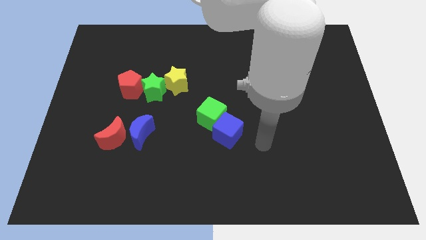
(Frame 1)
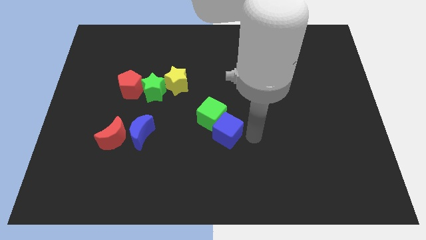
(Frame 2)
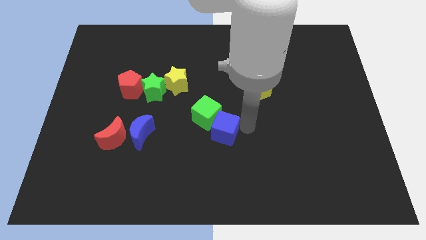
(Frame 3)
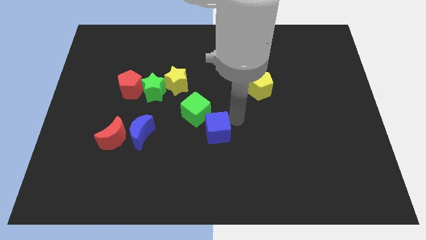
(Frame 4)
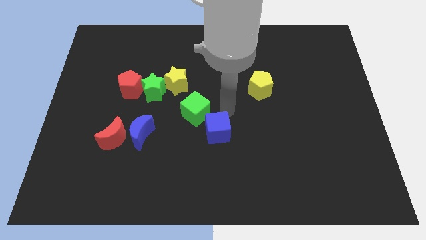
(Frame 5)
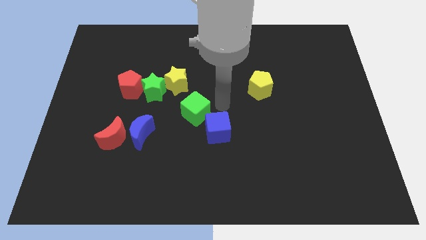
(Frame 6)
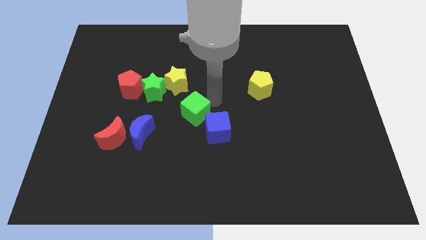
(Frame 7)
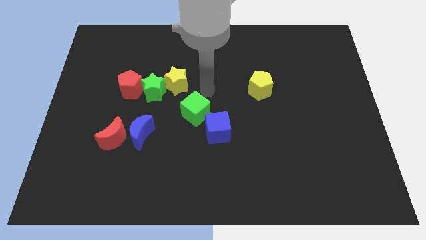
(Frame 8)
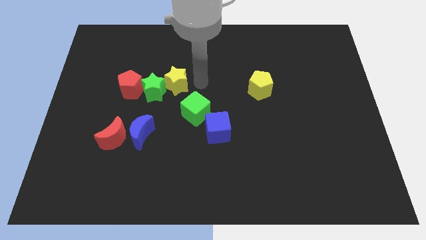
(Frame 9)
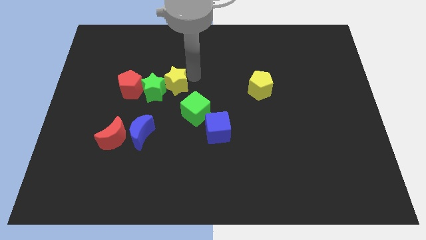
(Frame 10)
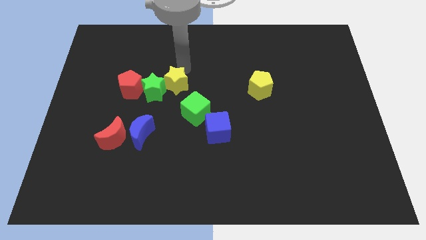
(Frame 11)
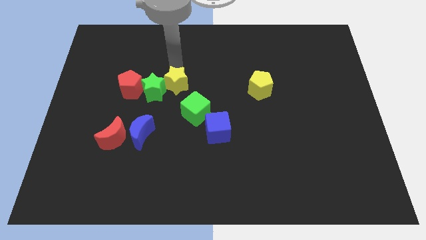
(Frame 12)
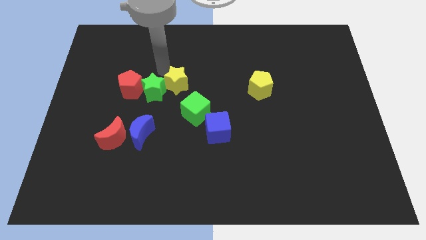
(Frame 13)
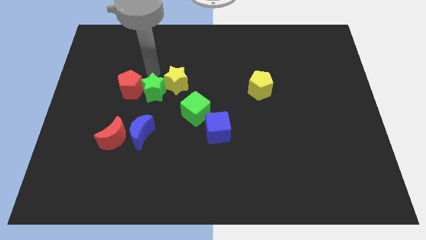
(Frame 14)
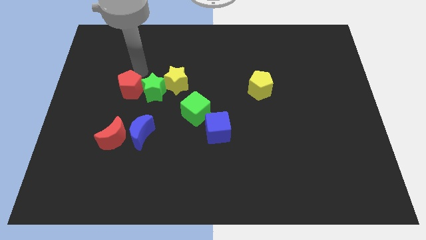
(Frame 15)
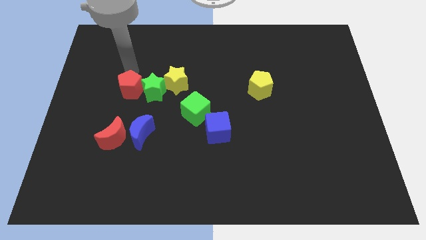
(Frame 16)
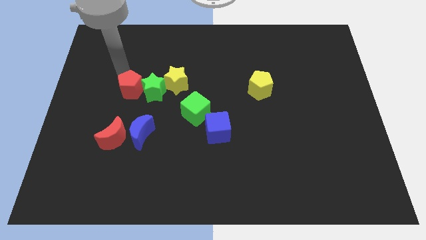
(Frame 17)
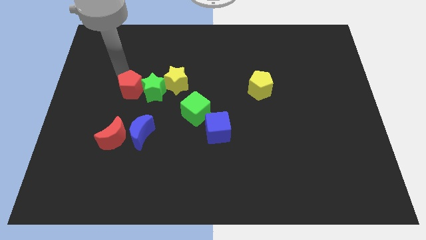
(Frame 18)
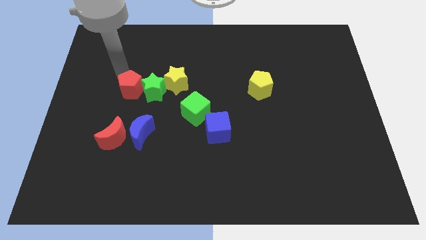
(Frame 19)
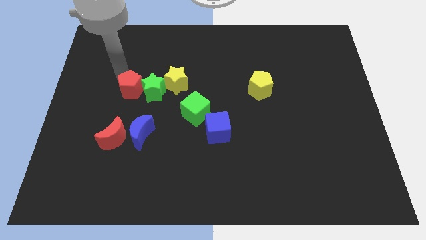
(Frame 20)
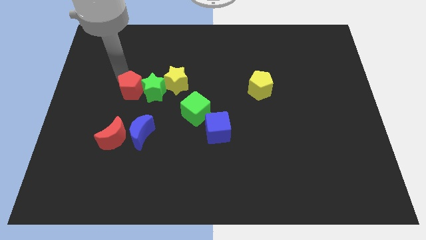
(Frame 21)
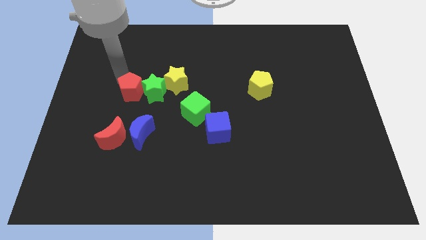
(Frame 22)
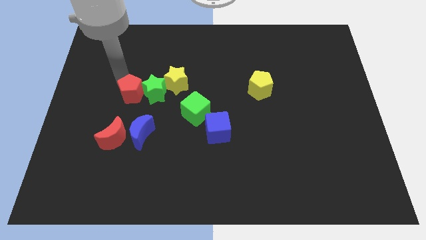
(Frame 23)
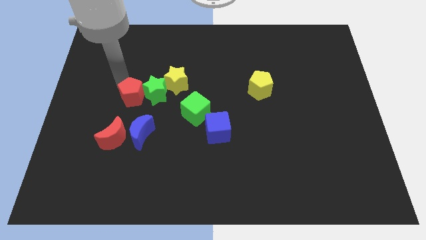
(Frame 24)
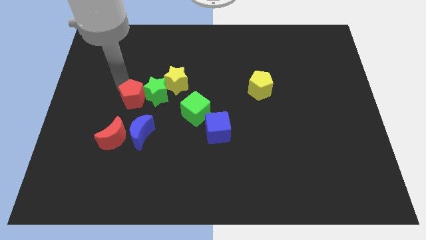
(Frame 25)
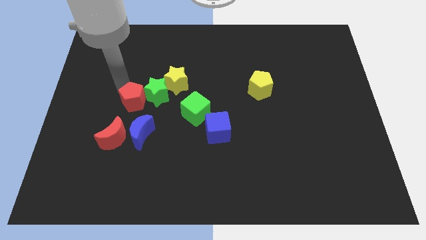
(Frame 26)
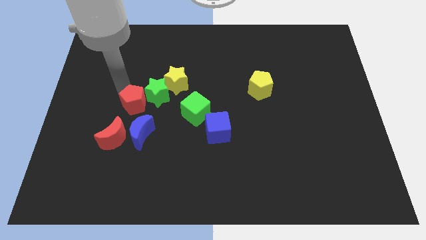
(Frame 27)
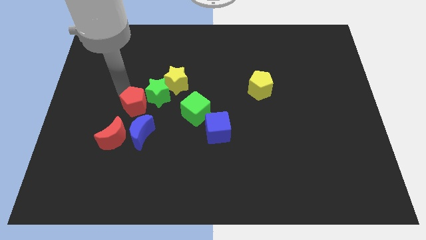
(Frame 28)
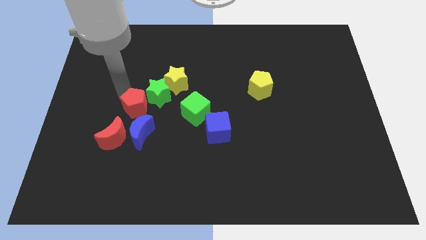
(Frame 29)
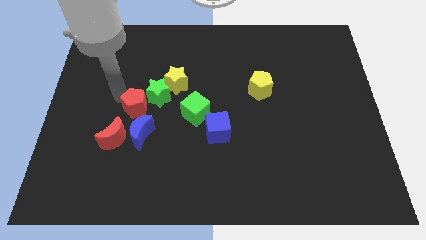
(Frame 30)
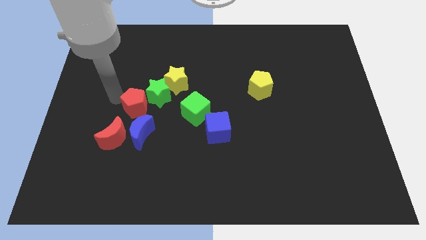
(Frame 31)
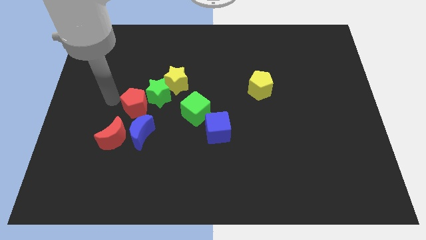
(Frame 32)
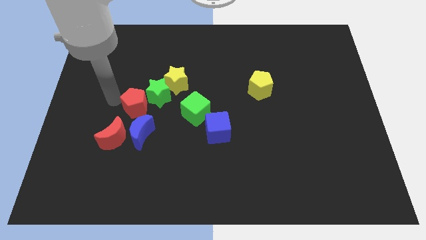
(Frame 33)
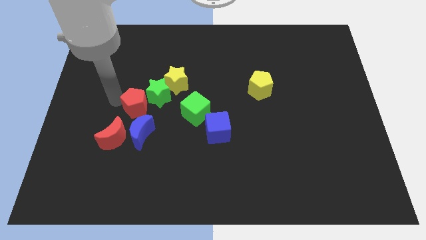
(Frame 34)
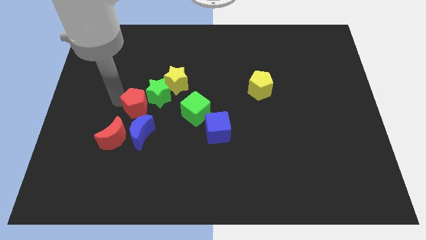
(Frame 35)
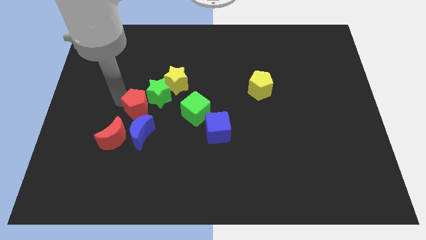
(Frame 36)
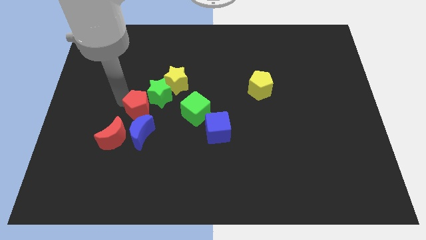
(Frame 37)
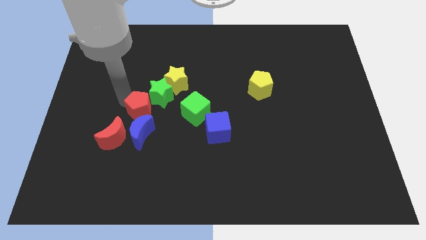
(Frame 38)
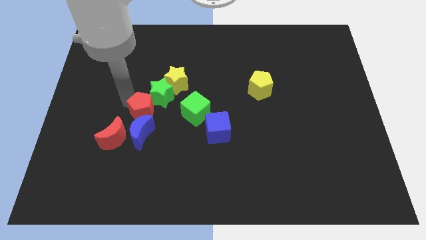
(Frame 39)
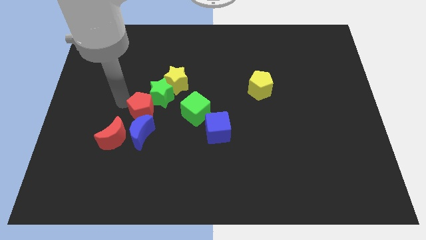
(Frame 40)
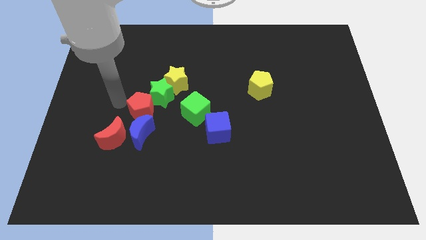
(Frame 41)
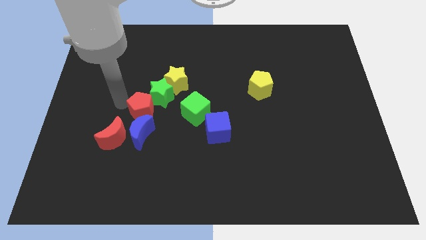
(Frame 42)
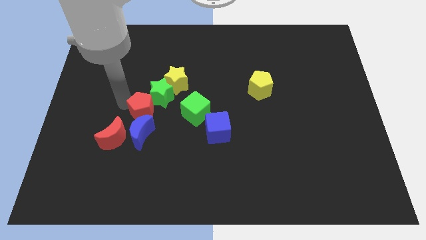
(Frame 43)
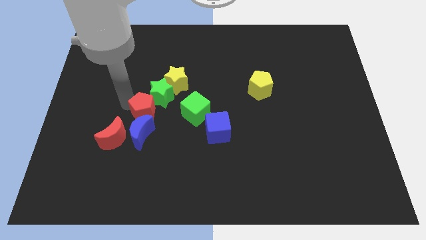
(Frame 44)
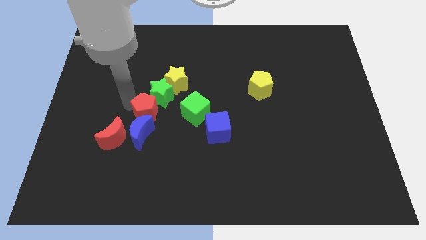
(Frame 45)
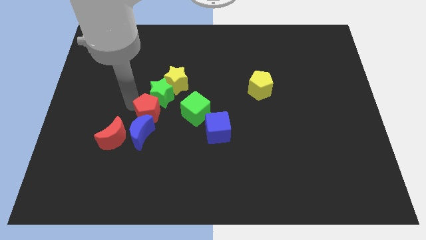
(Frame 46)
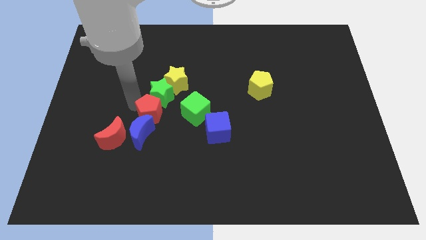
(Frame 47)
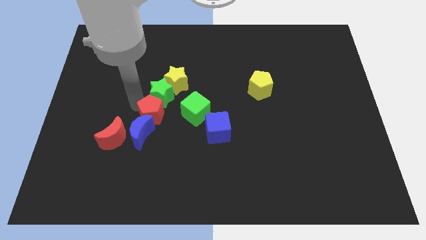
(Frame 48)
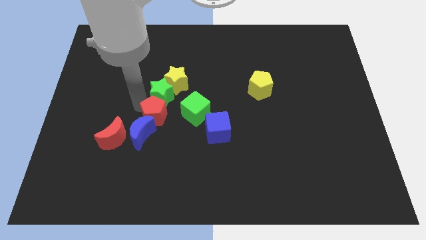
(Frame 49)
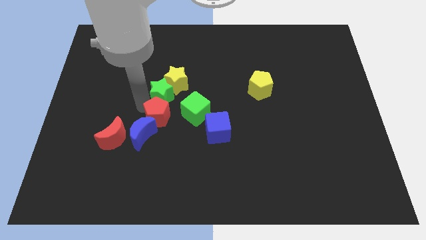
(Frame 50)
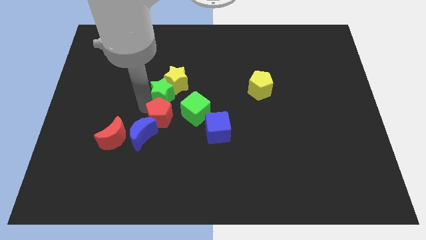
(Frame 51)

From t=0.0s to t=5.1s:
put the red pentagon to the bottom left of the green cube

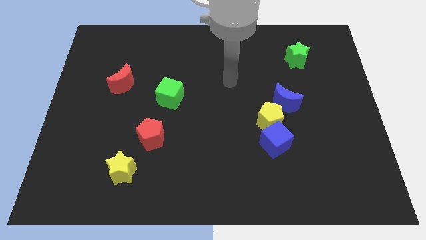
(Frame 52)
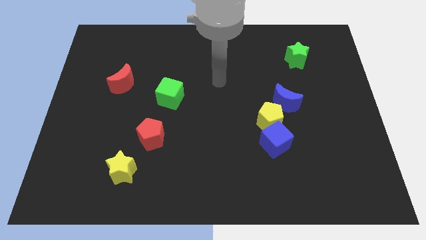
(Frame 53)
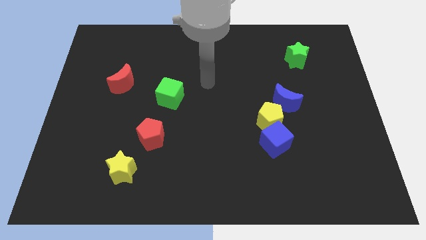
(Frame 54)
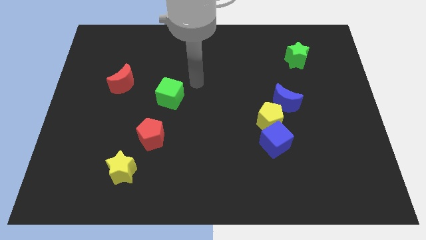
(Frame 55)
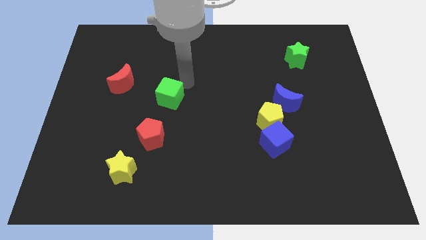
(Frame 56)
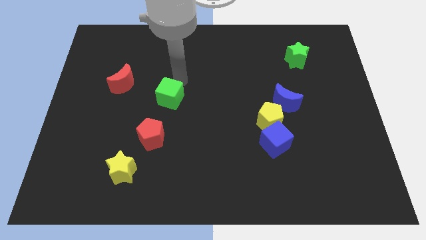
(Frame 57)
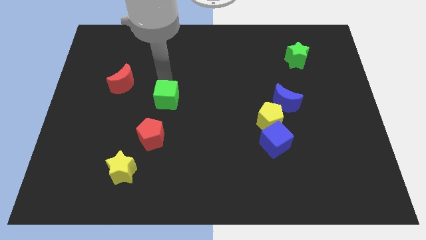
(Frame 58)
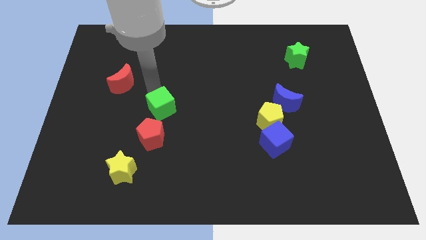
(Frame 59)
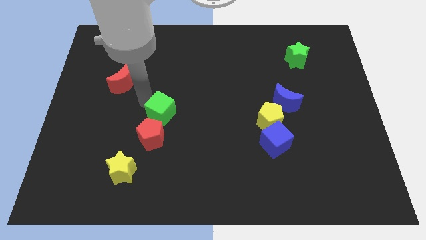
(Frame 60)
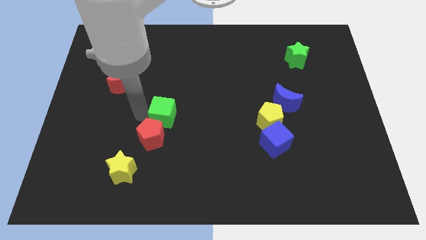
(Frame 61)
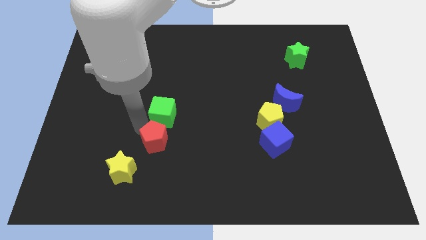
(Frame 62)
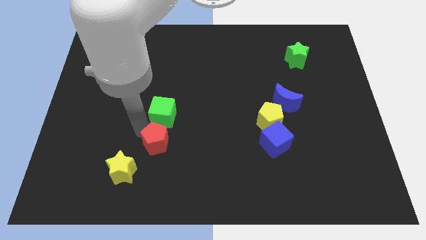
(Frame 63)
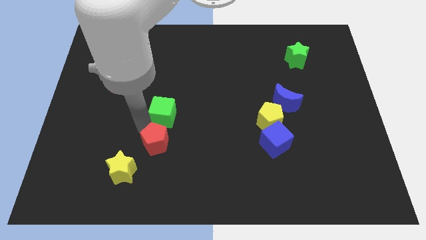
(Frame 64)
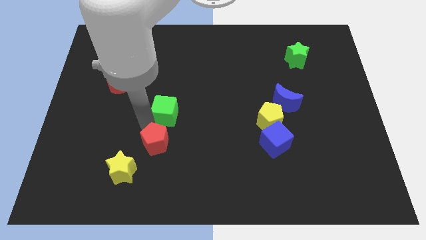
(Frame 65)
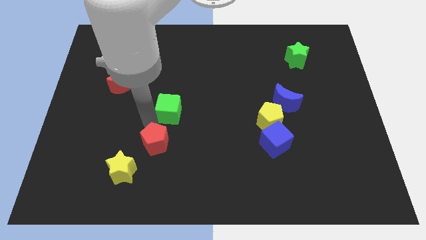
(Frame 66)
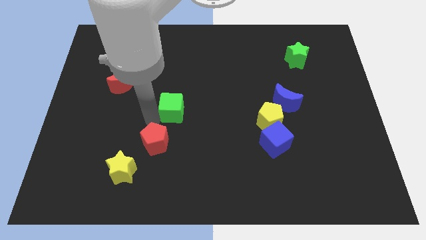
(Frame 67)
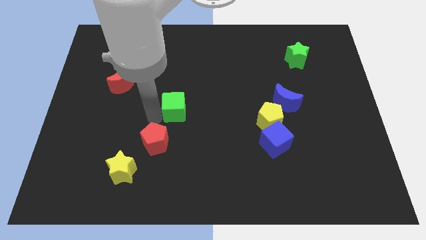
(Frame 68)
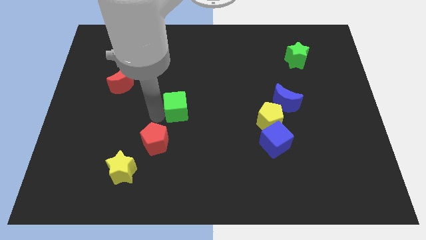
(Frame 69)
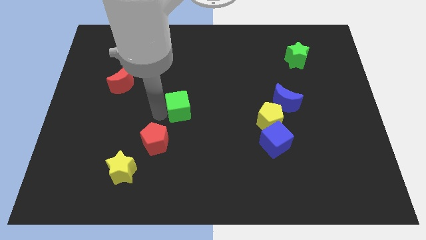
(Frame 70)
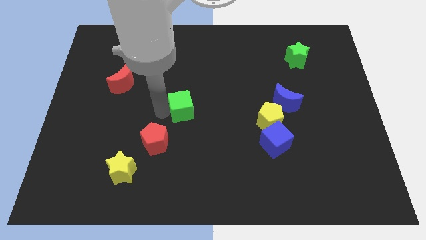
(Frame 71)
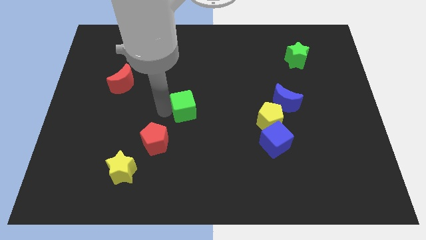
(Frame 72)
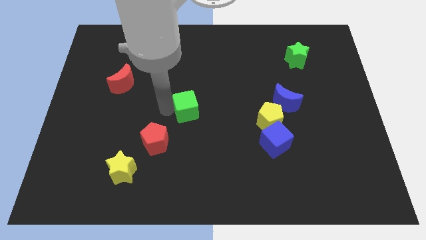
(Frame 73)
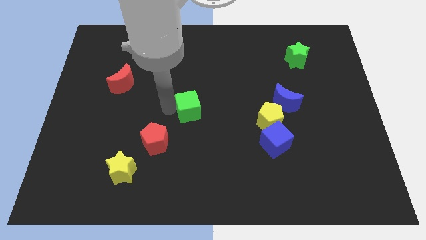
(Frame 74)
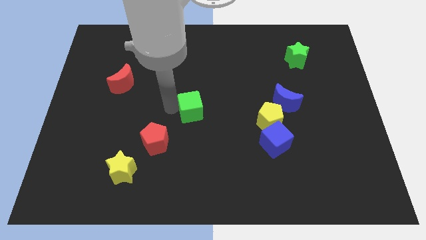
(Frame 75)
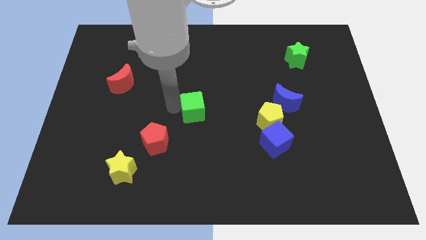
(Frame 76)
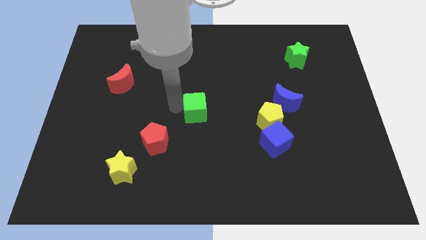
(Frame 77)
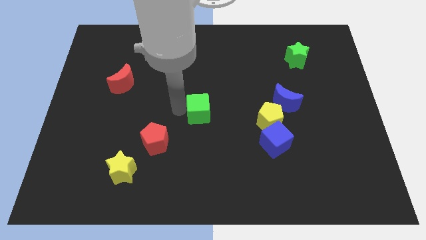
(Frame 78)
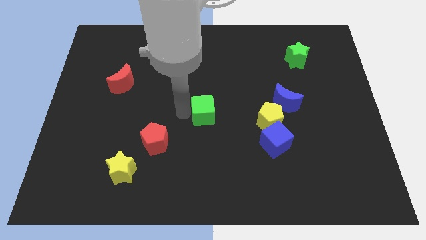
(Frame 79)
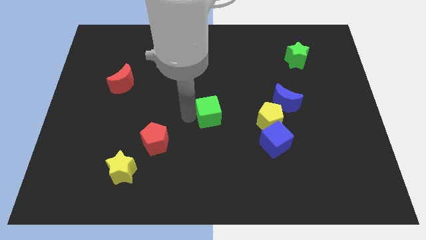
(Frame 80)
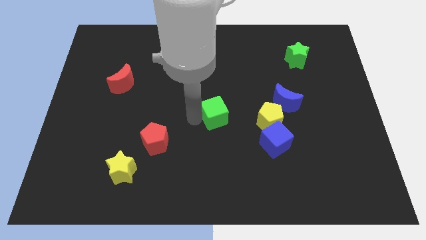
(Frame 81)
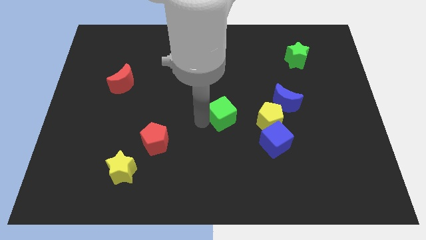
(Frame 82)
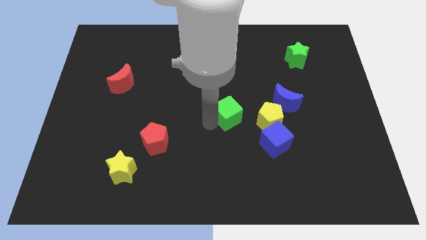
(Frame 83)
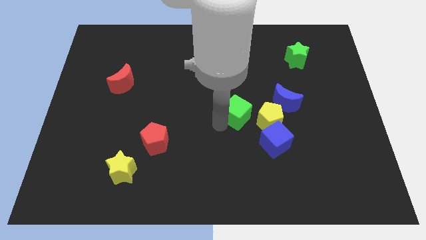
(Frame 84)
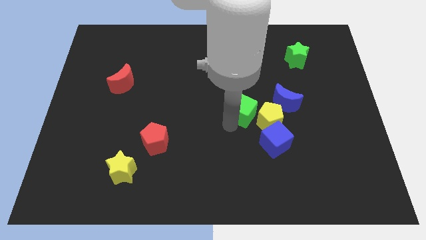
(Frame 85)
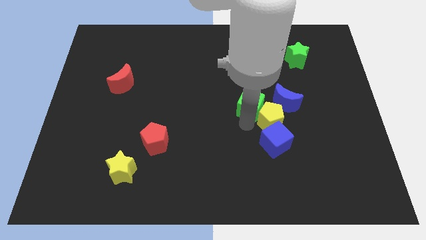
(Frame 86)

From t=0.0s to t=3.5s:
push the green cube to the top of the blue cube
